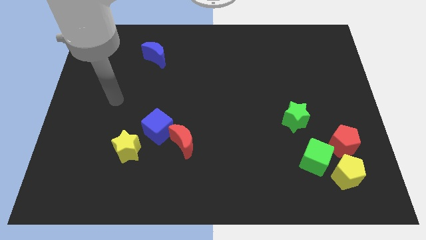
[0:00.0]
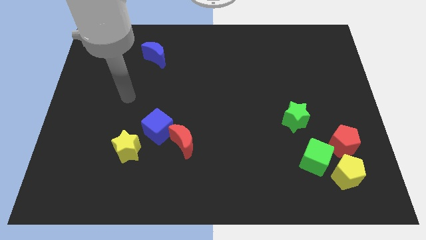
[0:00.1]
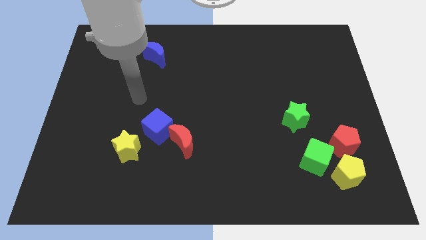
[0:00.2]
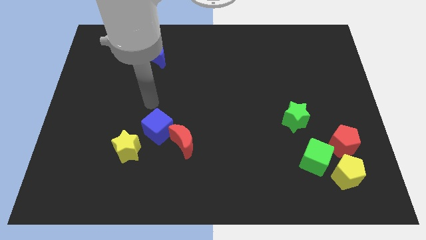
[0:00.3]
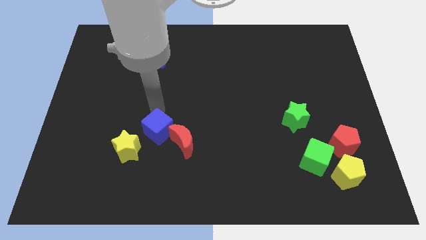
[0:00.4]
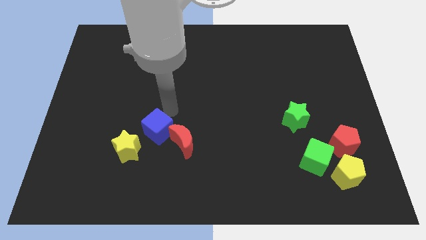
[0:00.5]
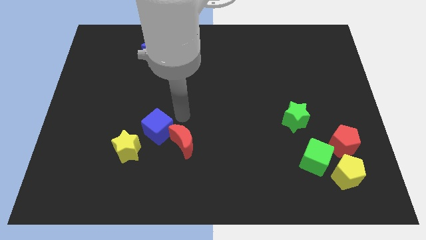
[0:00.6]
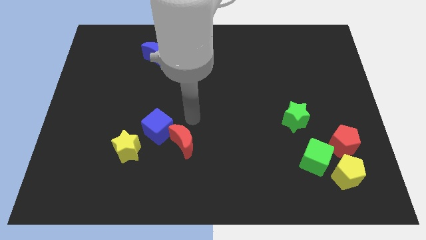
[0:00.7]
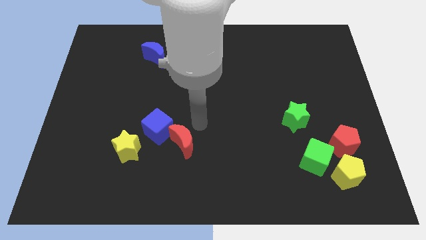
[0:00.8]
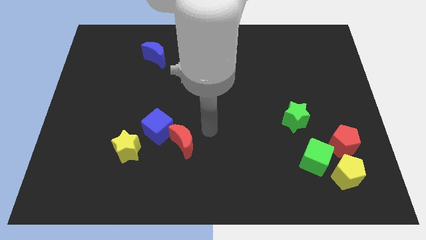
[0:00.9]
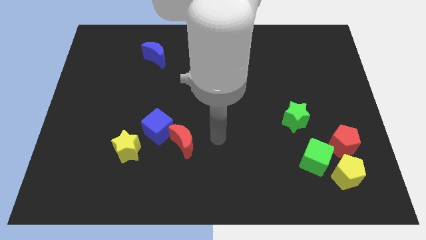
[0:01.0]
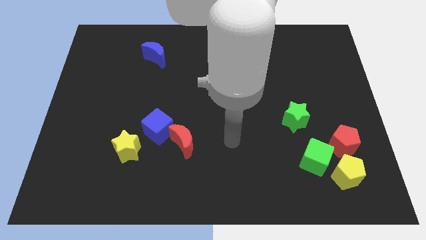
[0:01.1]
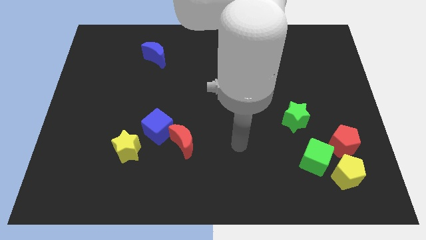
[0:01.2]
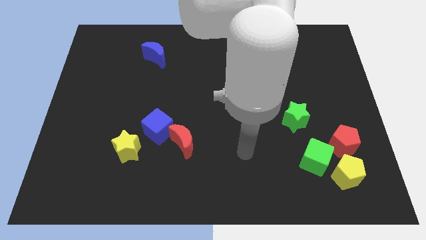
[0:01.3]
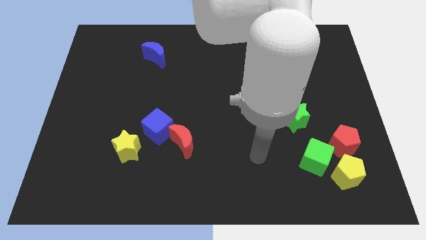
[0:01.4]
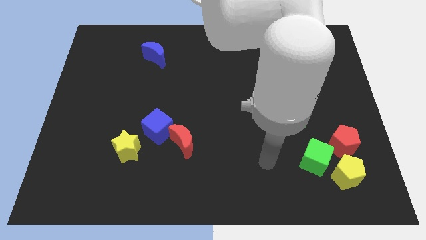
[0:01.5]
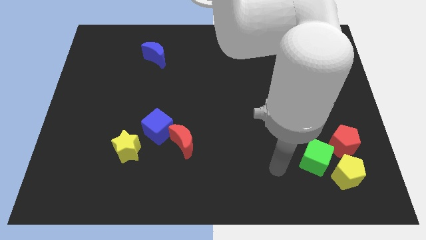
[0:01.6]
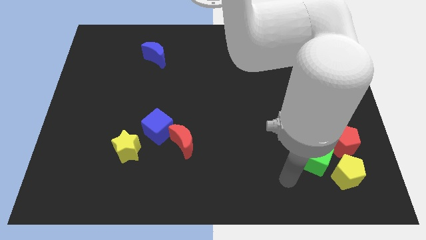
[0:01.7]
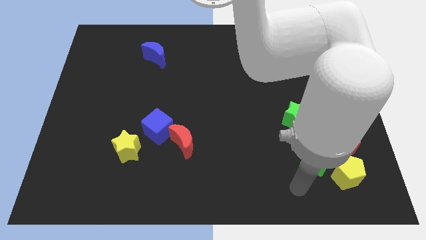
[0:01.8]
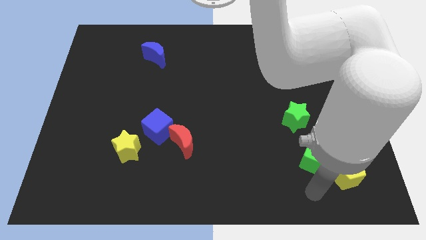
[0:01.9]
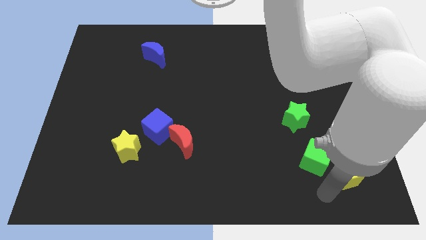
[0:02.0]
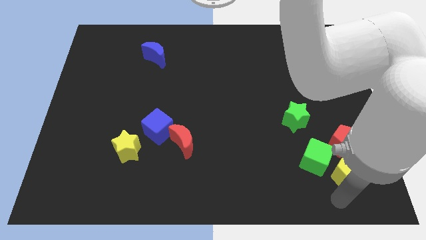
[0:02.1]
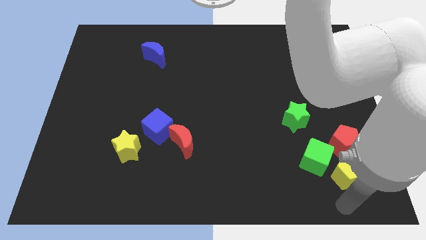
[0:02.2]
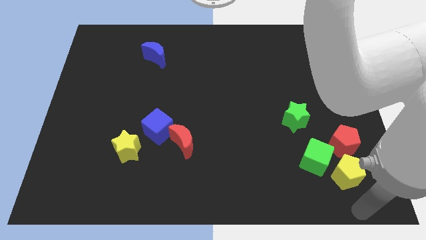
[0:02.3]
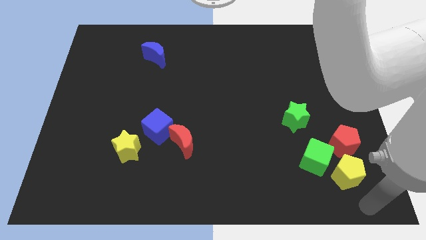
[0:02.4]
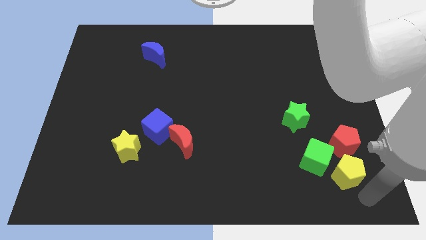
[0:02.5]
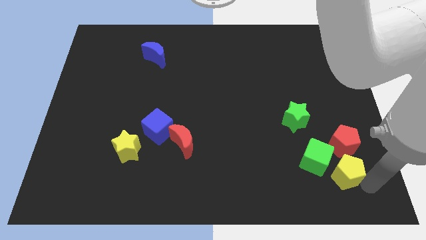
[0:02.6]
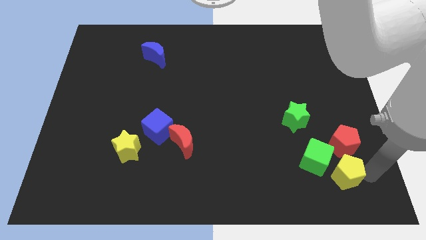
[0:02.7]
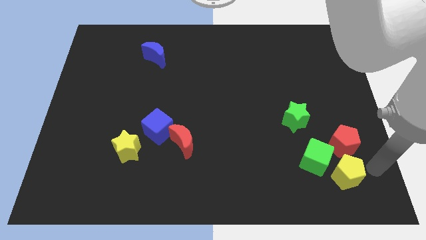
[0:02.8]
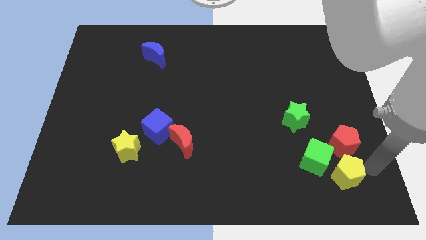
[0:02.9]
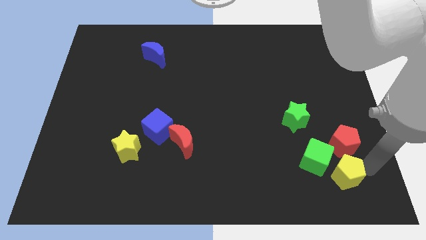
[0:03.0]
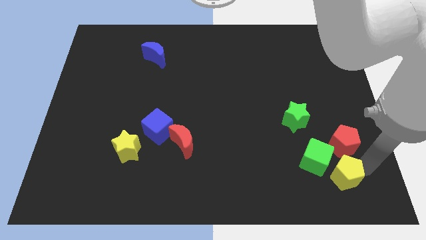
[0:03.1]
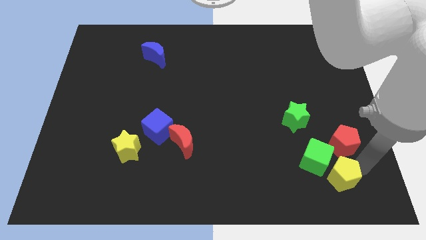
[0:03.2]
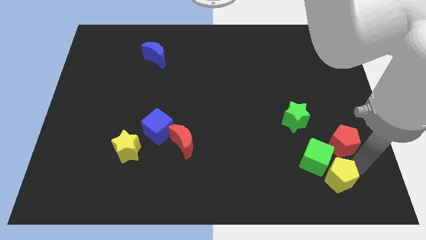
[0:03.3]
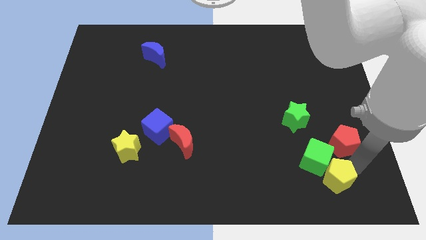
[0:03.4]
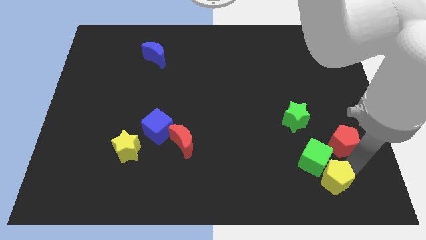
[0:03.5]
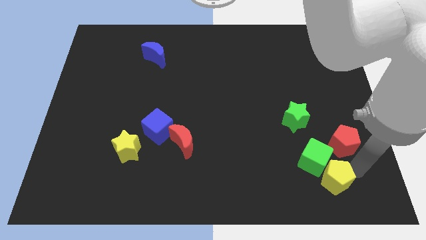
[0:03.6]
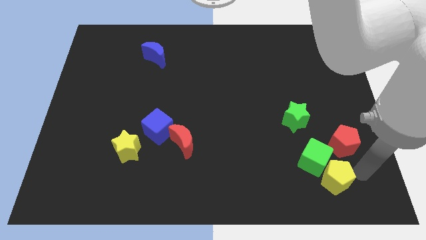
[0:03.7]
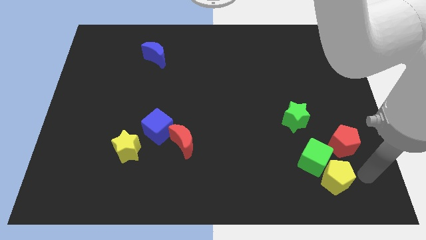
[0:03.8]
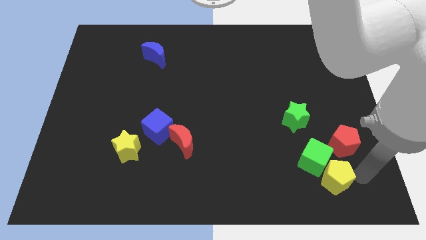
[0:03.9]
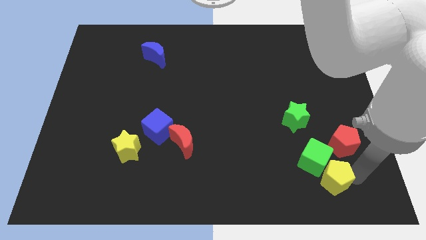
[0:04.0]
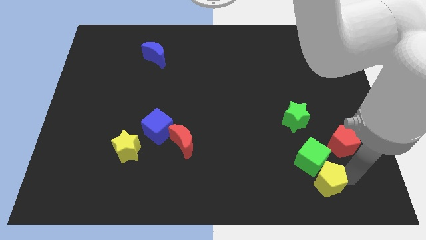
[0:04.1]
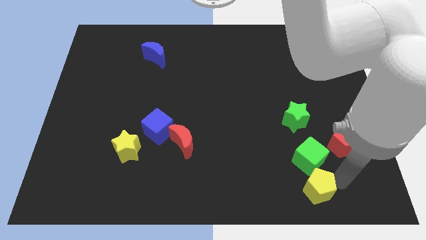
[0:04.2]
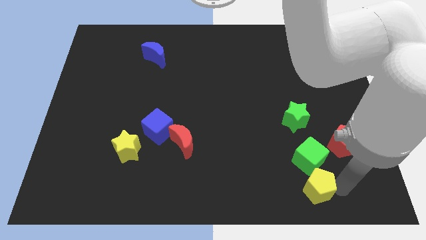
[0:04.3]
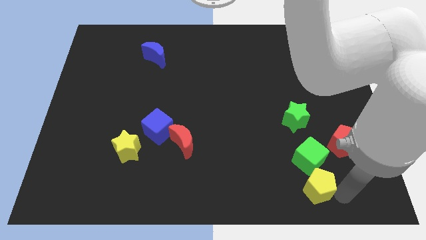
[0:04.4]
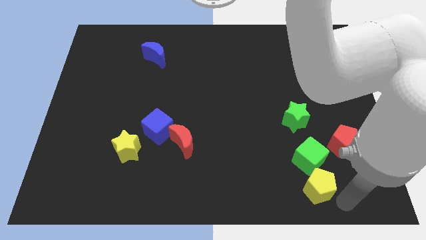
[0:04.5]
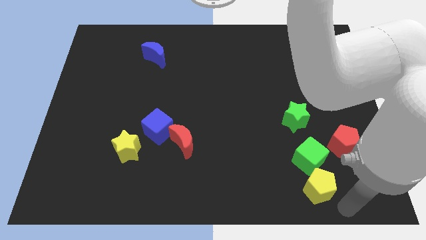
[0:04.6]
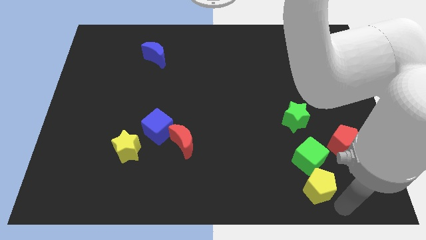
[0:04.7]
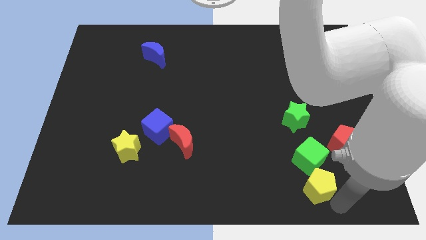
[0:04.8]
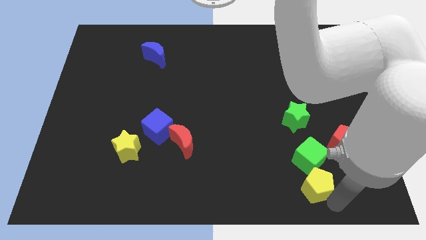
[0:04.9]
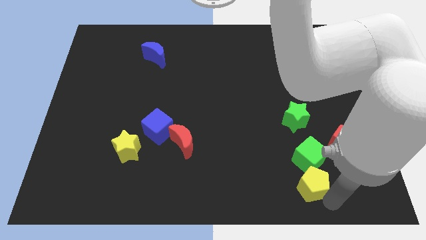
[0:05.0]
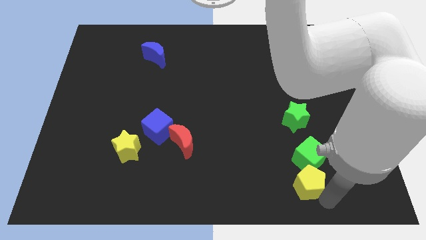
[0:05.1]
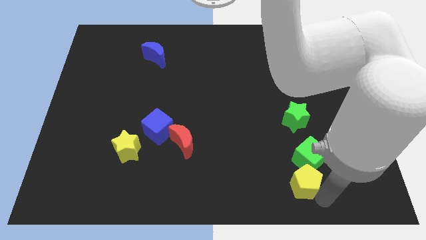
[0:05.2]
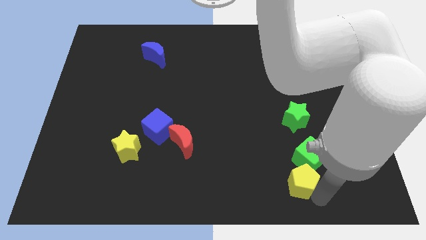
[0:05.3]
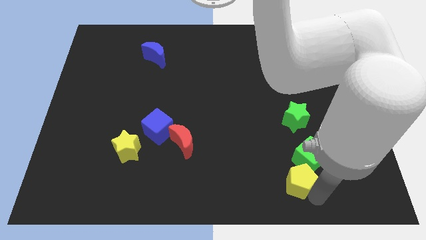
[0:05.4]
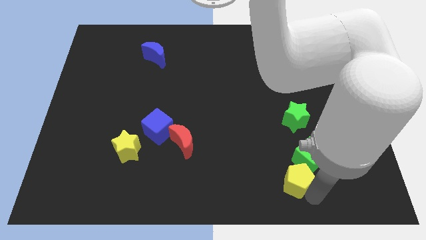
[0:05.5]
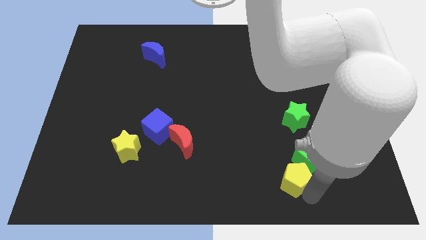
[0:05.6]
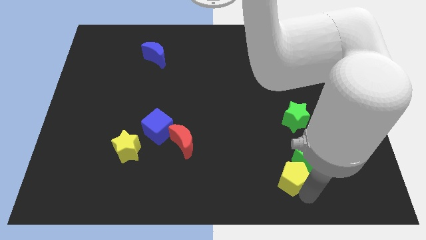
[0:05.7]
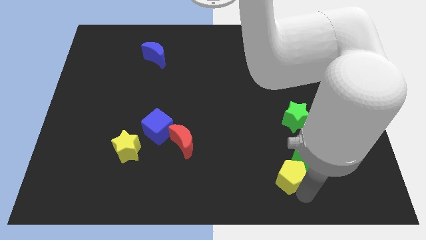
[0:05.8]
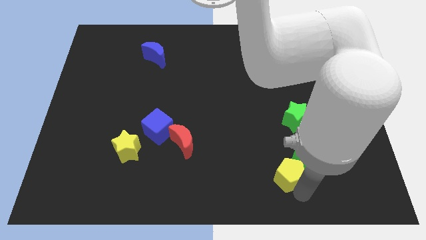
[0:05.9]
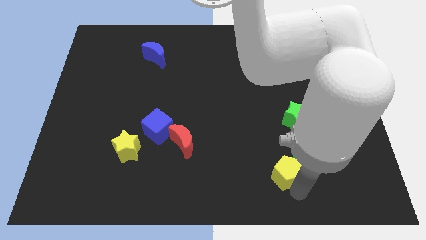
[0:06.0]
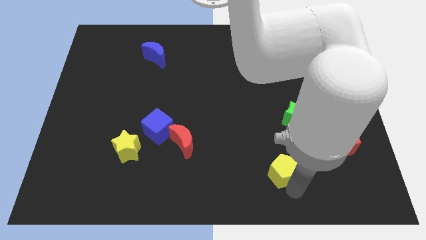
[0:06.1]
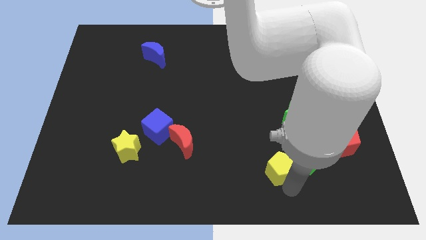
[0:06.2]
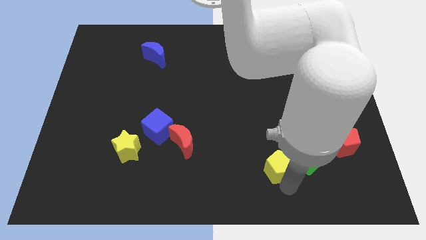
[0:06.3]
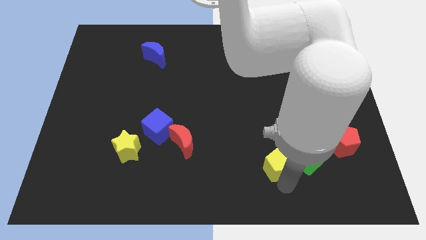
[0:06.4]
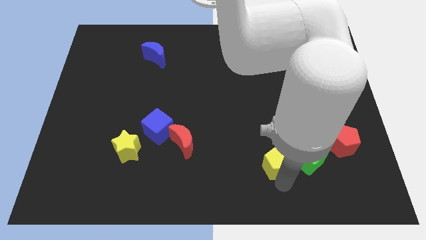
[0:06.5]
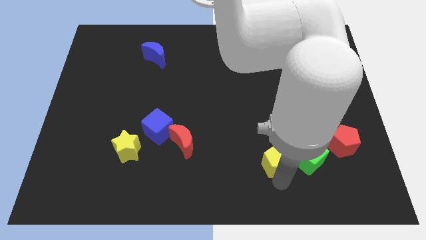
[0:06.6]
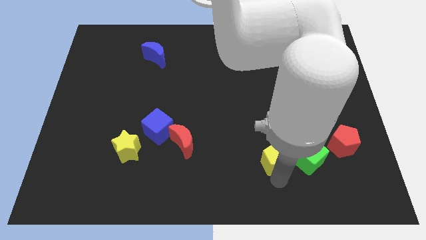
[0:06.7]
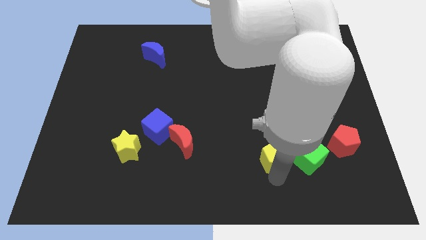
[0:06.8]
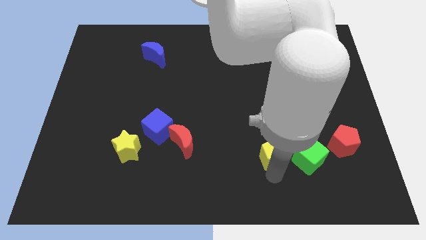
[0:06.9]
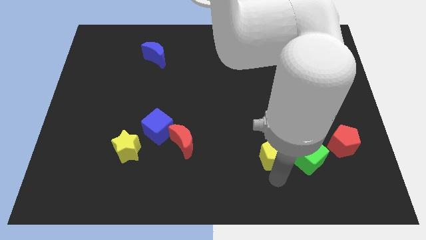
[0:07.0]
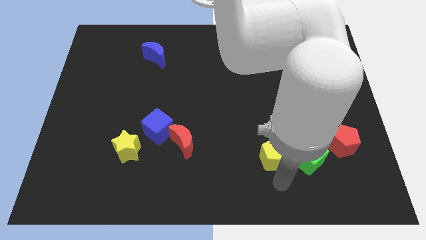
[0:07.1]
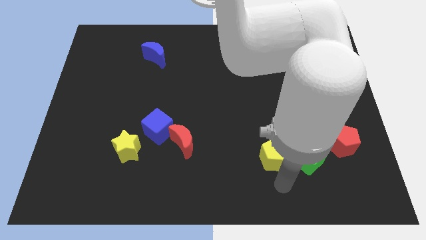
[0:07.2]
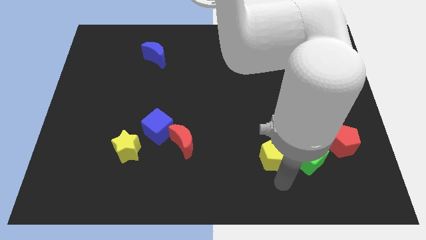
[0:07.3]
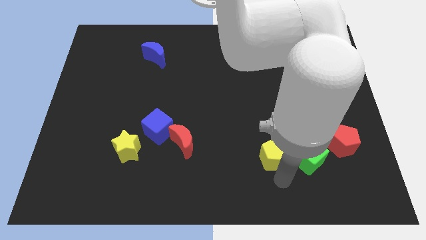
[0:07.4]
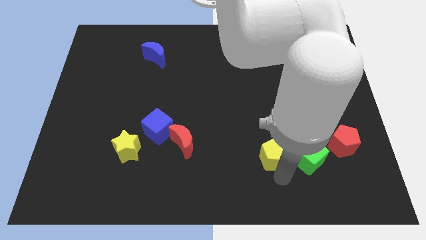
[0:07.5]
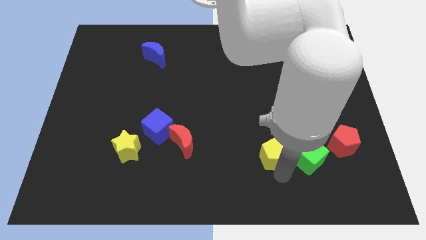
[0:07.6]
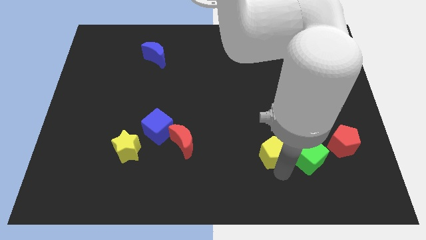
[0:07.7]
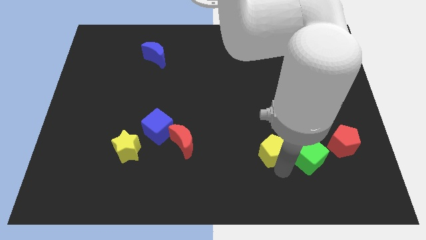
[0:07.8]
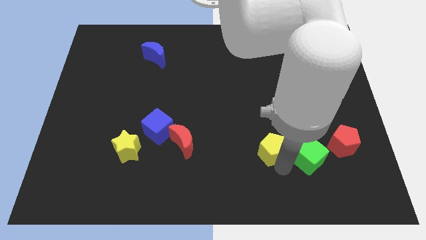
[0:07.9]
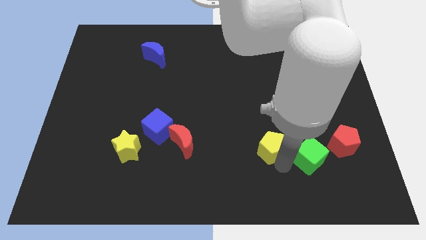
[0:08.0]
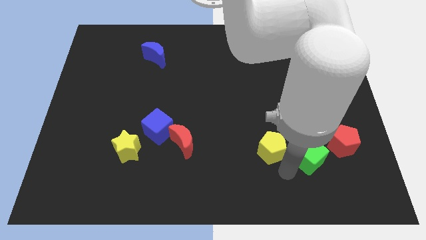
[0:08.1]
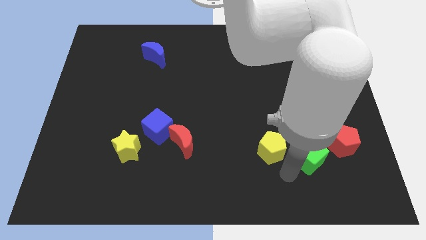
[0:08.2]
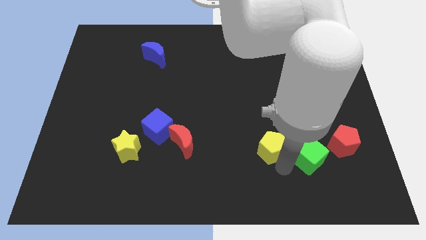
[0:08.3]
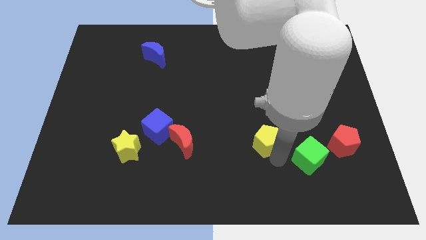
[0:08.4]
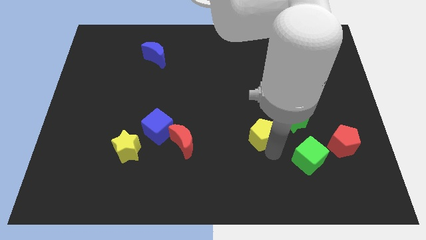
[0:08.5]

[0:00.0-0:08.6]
move the yellow pentagon to the left of the green star
